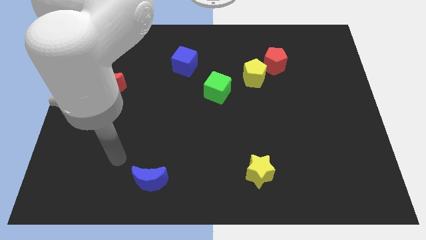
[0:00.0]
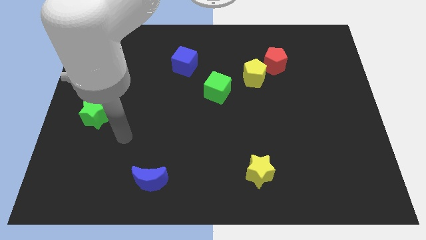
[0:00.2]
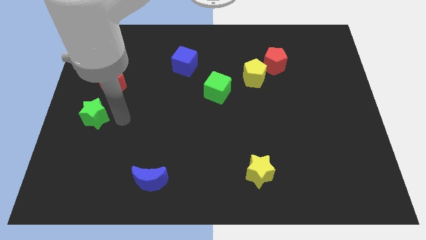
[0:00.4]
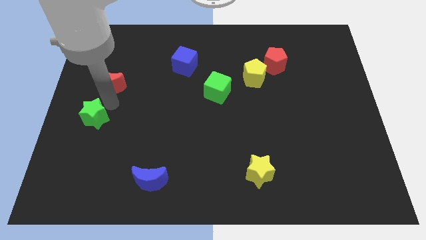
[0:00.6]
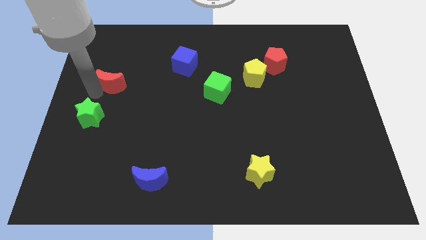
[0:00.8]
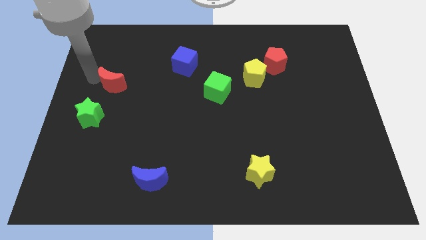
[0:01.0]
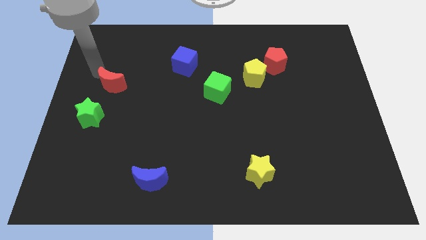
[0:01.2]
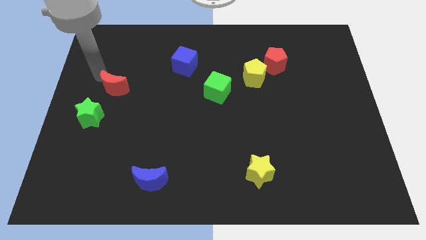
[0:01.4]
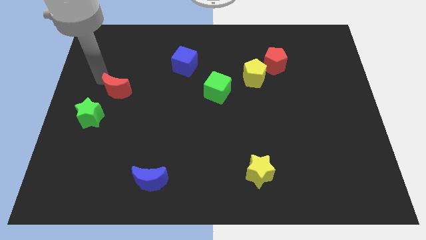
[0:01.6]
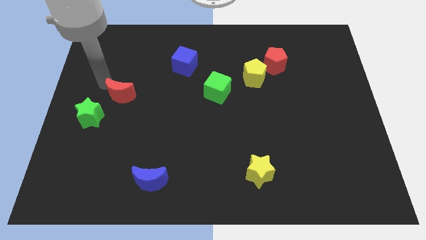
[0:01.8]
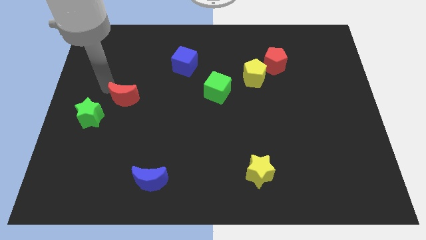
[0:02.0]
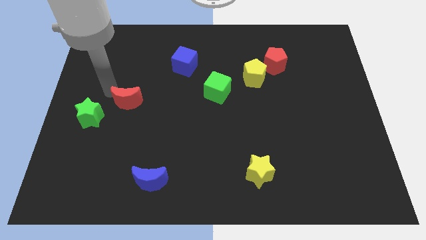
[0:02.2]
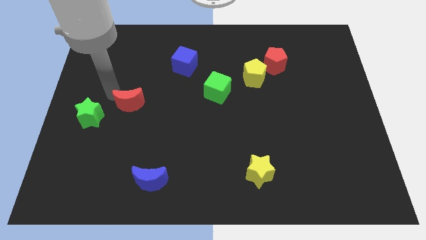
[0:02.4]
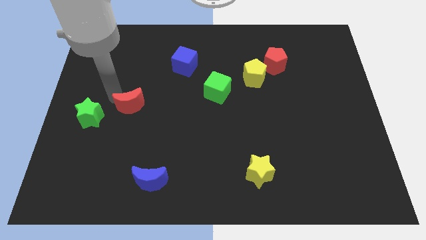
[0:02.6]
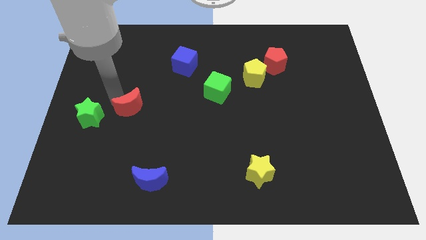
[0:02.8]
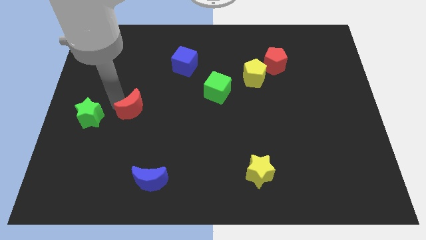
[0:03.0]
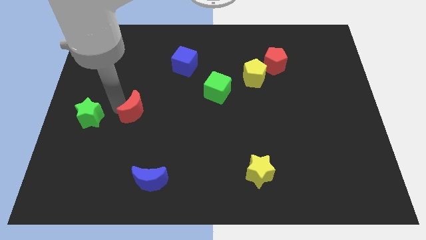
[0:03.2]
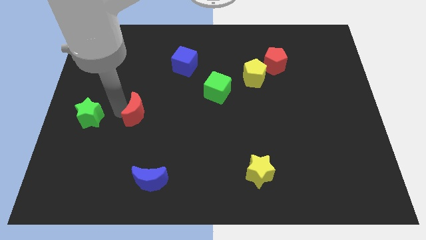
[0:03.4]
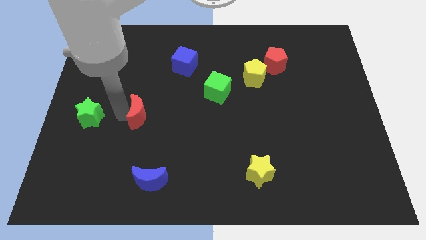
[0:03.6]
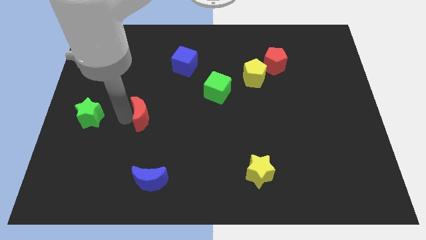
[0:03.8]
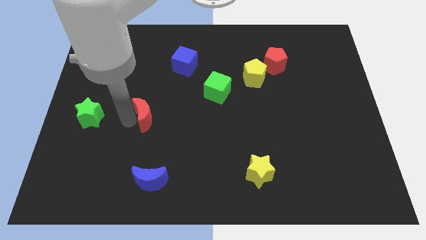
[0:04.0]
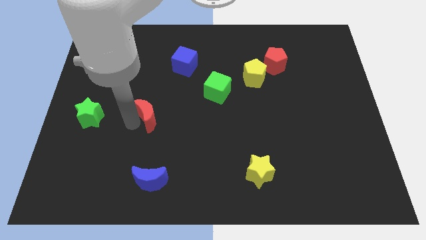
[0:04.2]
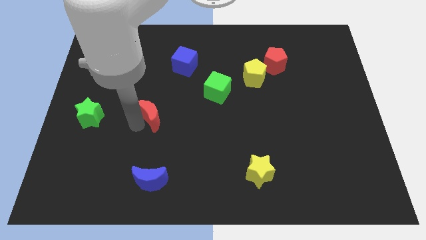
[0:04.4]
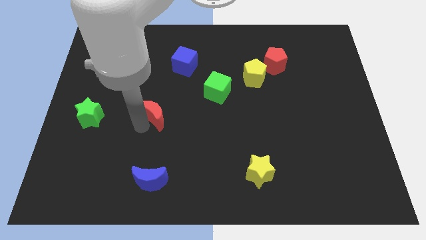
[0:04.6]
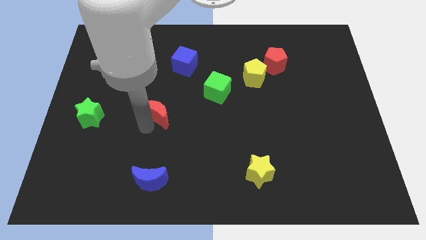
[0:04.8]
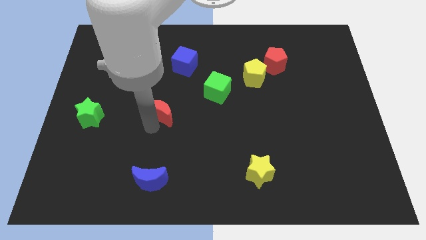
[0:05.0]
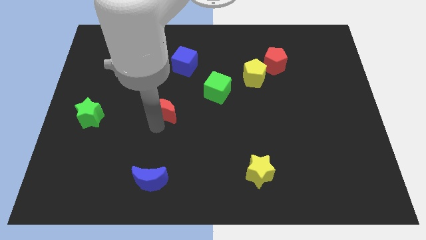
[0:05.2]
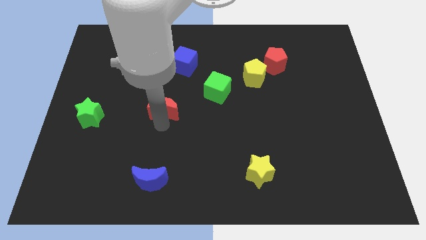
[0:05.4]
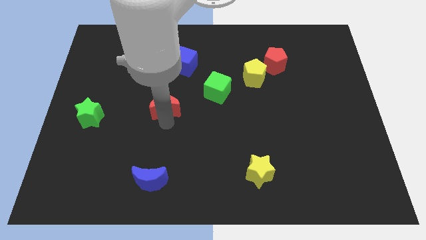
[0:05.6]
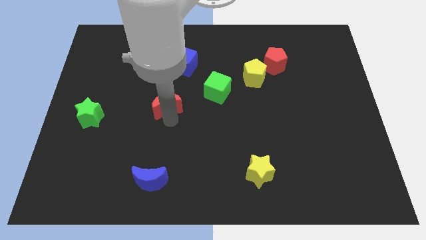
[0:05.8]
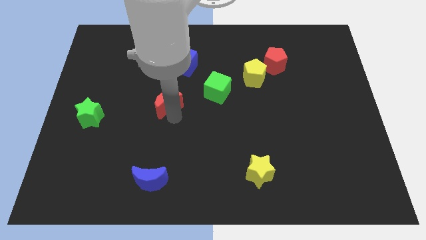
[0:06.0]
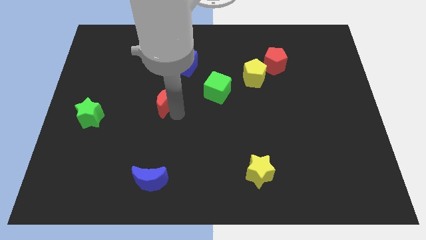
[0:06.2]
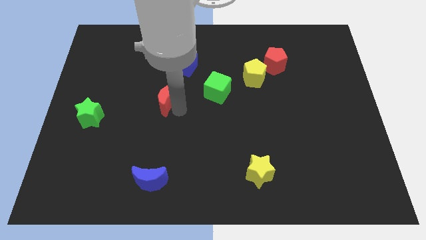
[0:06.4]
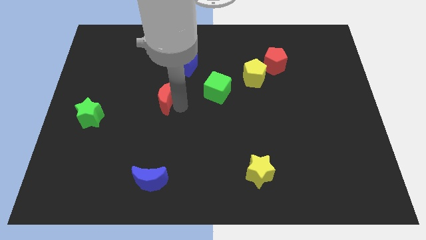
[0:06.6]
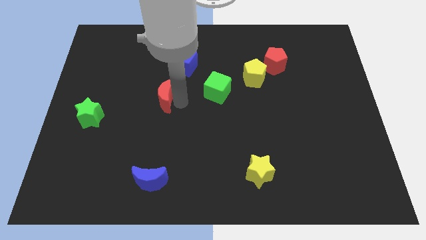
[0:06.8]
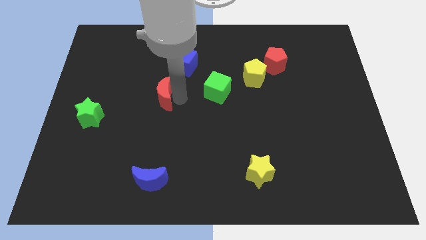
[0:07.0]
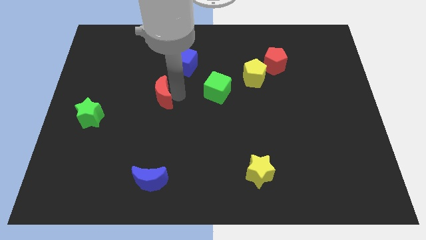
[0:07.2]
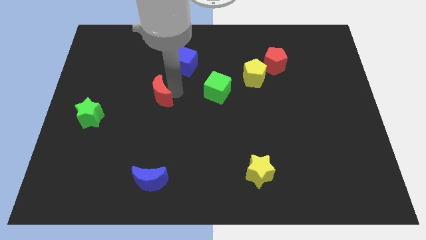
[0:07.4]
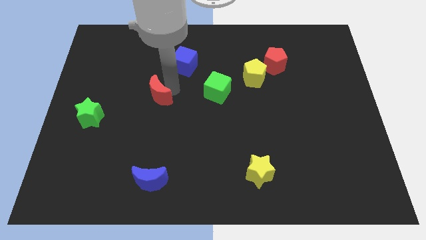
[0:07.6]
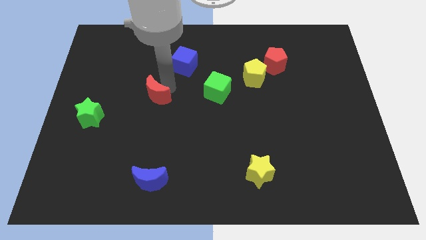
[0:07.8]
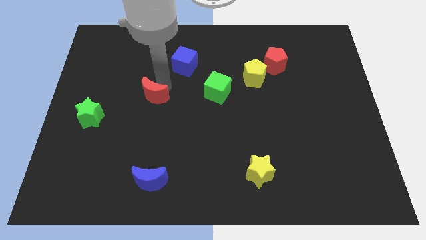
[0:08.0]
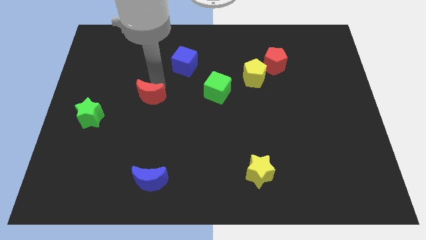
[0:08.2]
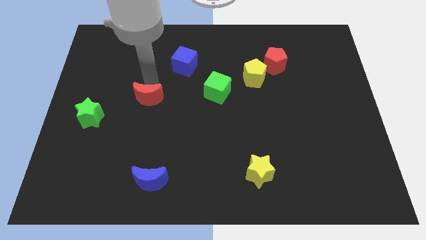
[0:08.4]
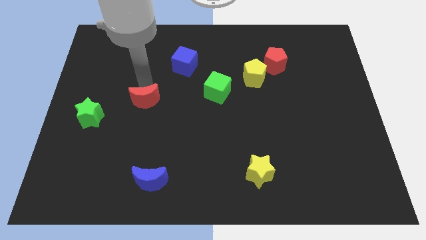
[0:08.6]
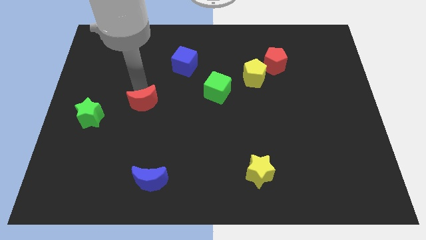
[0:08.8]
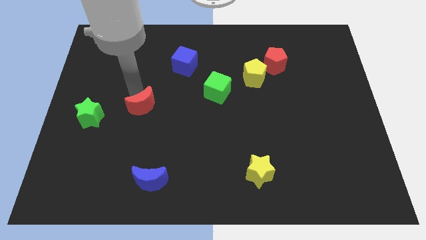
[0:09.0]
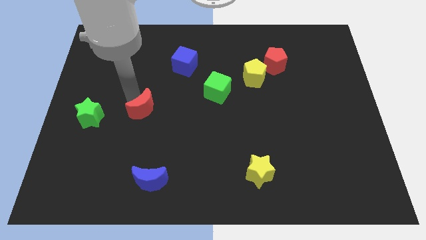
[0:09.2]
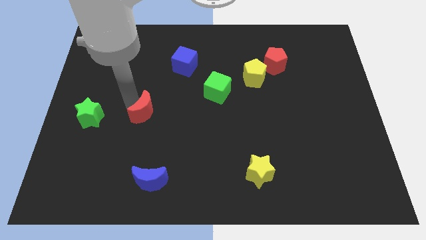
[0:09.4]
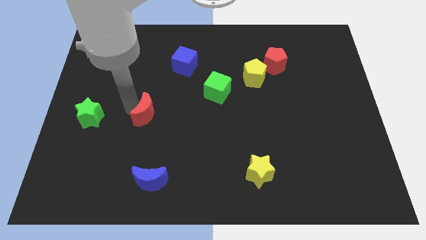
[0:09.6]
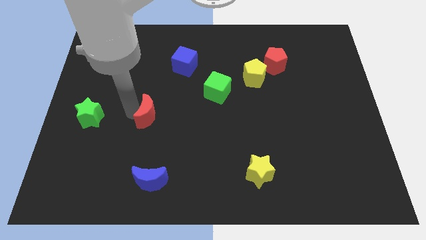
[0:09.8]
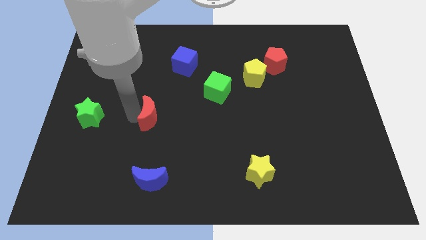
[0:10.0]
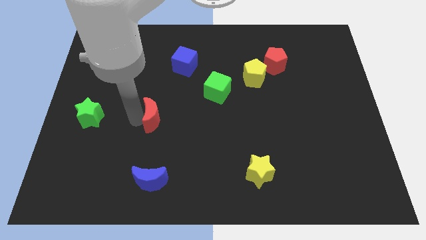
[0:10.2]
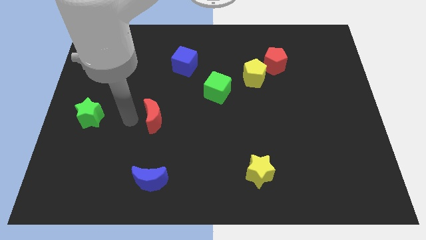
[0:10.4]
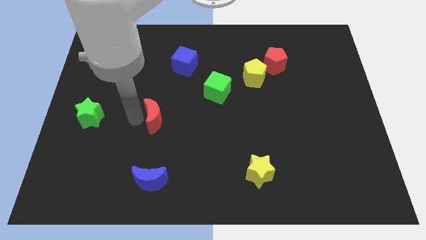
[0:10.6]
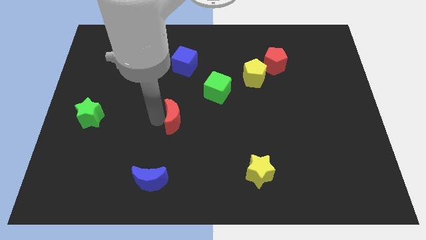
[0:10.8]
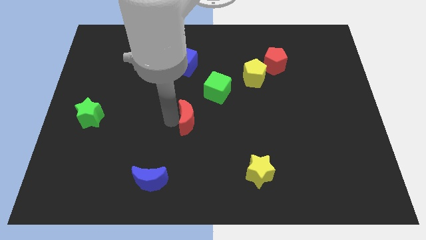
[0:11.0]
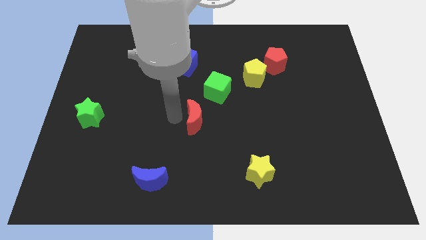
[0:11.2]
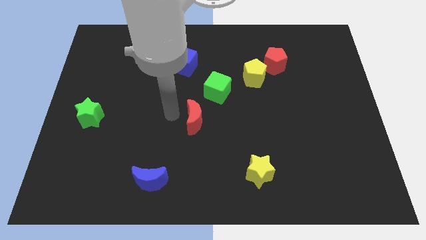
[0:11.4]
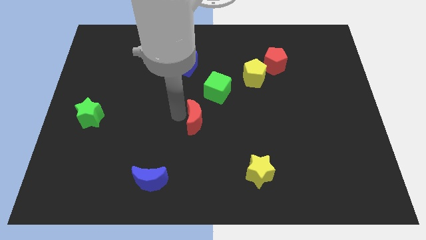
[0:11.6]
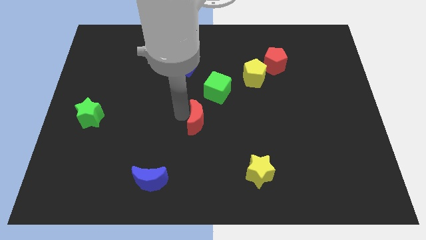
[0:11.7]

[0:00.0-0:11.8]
push the red moon below the green cube
